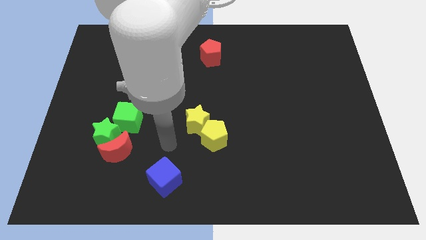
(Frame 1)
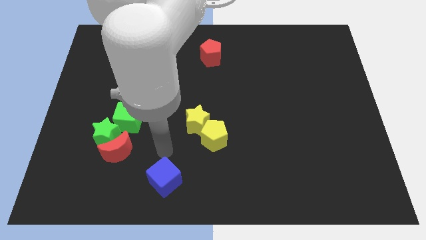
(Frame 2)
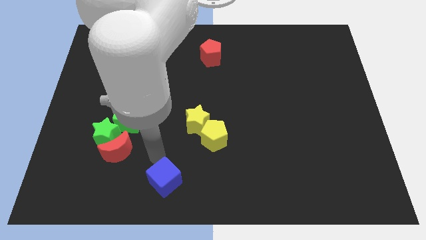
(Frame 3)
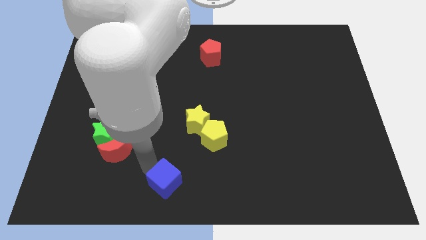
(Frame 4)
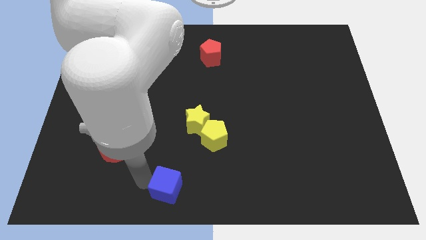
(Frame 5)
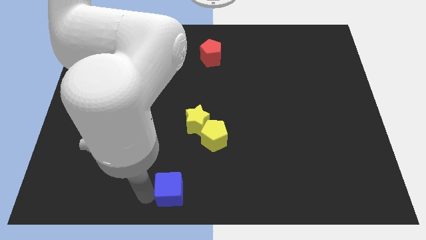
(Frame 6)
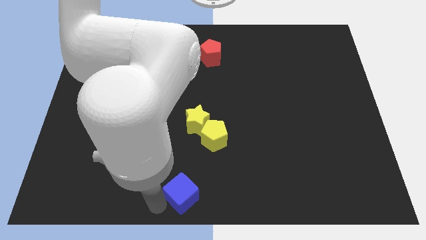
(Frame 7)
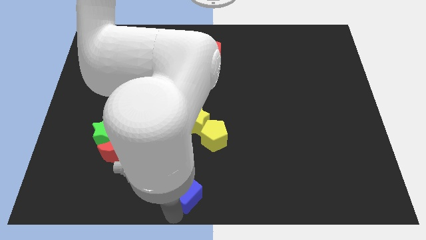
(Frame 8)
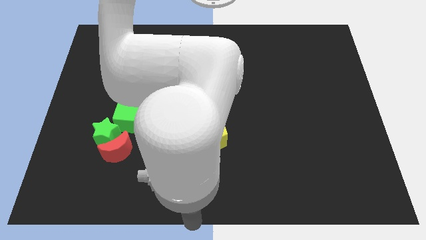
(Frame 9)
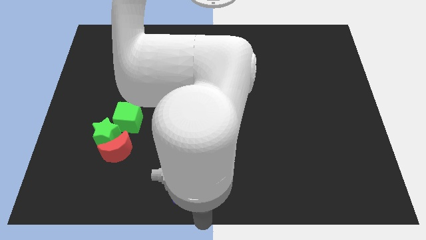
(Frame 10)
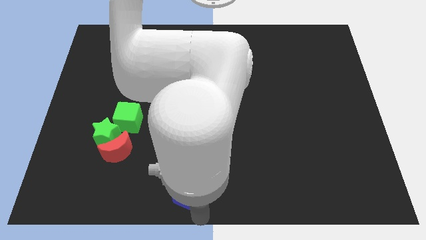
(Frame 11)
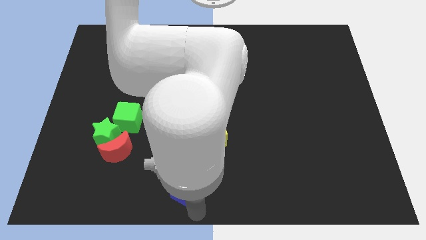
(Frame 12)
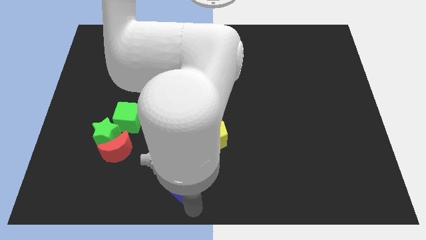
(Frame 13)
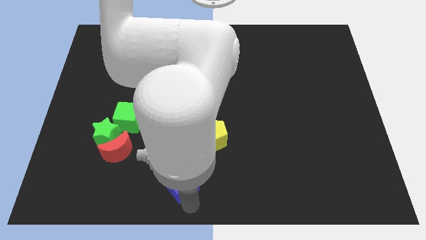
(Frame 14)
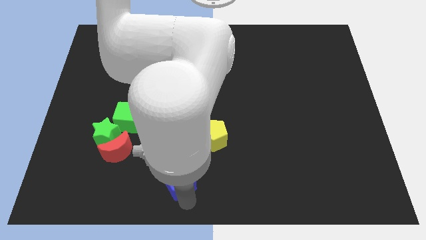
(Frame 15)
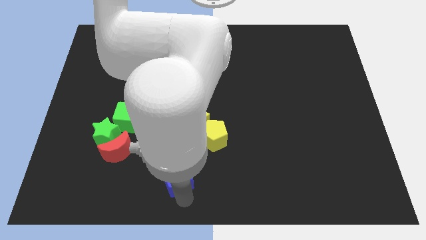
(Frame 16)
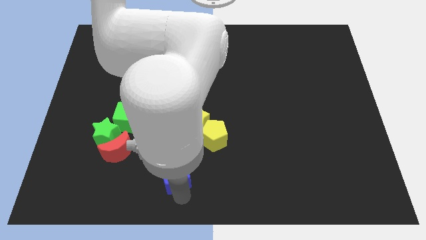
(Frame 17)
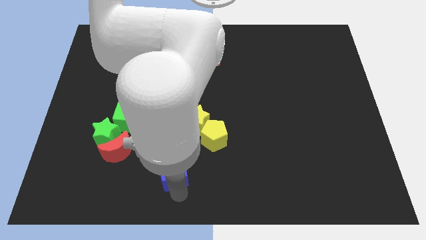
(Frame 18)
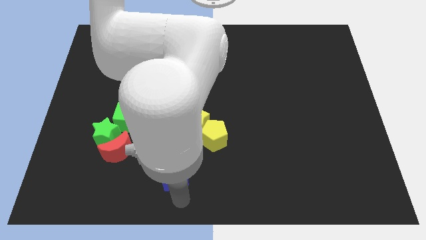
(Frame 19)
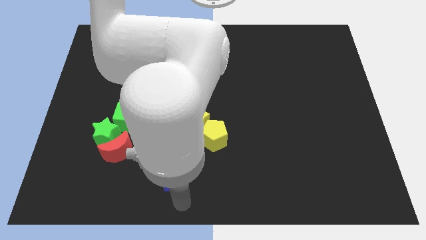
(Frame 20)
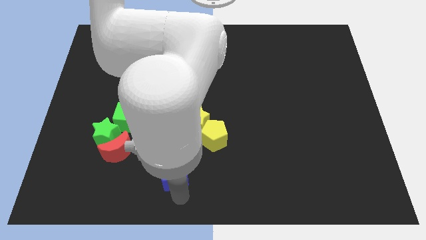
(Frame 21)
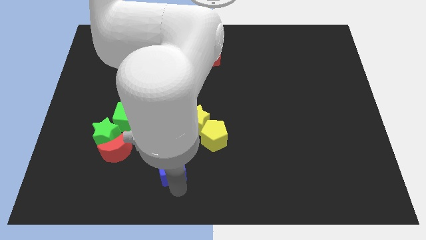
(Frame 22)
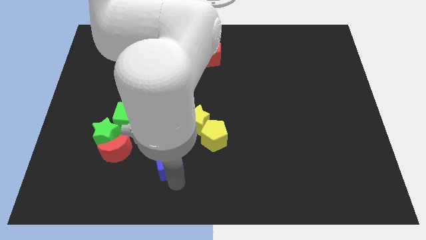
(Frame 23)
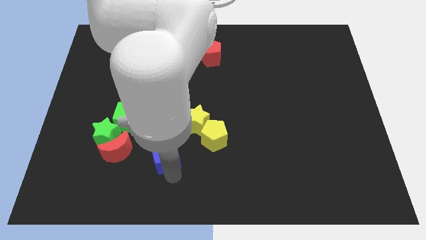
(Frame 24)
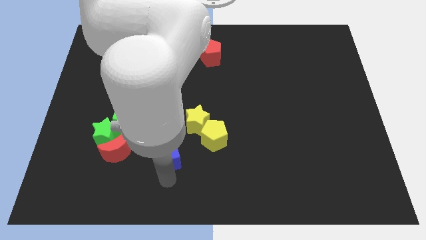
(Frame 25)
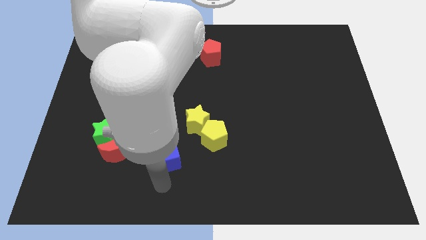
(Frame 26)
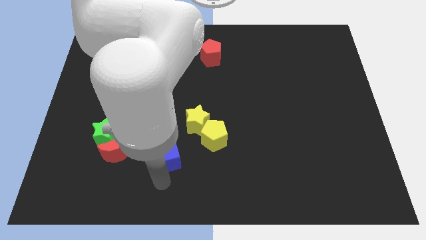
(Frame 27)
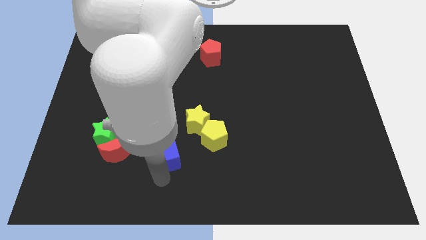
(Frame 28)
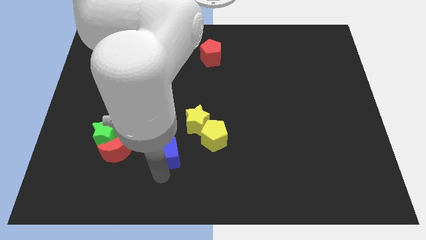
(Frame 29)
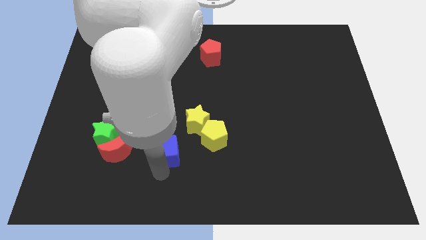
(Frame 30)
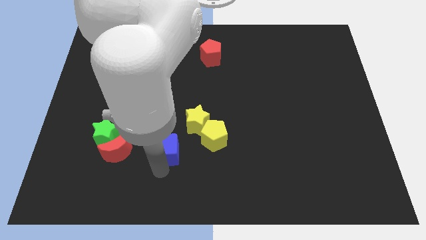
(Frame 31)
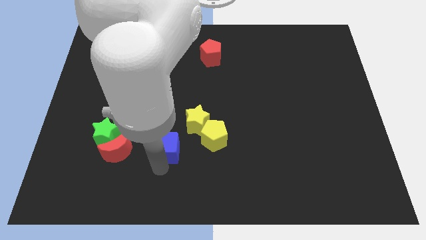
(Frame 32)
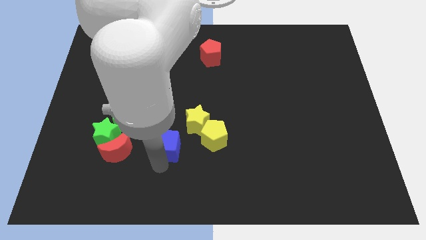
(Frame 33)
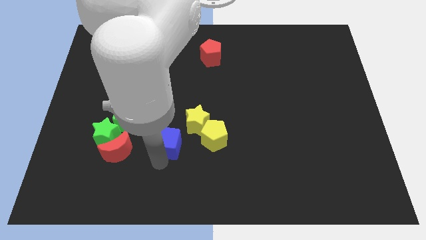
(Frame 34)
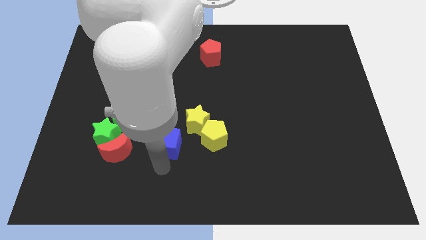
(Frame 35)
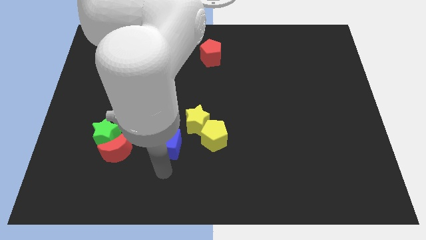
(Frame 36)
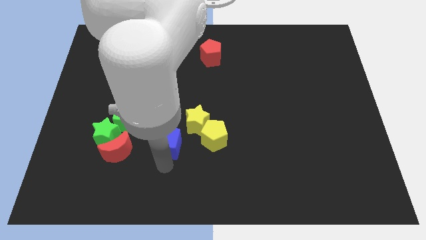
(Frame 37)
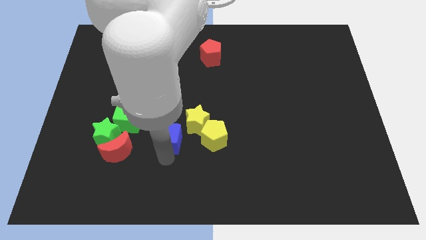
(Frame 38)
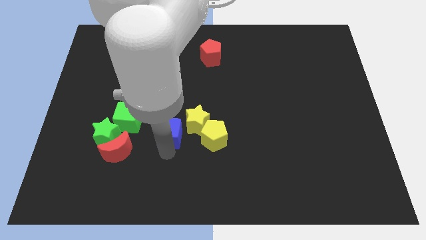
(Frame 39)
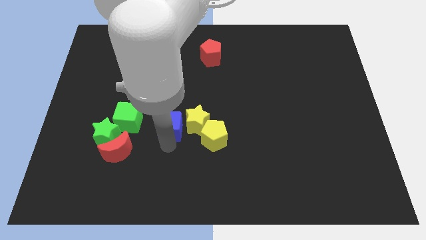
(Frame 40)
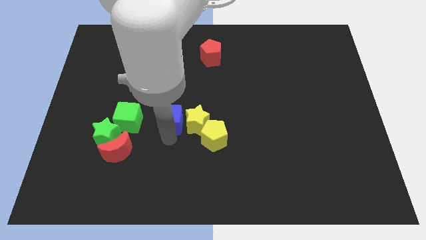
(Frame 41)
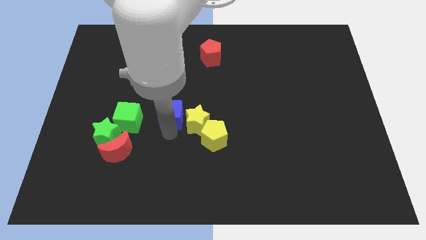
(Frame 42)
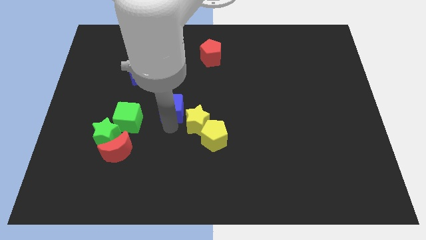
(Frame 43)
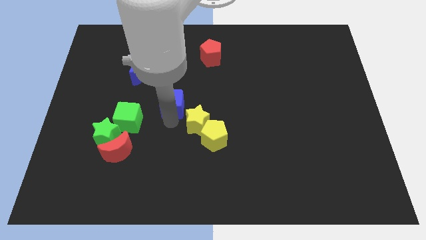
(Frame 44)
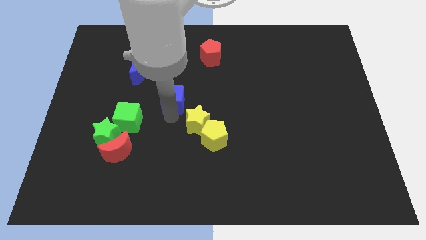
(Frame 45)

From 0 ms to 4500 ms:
move the blue cube upwards

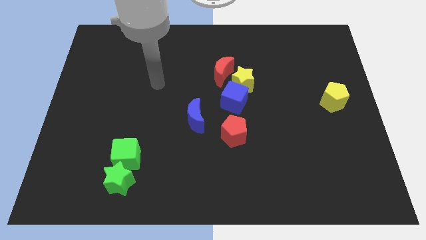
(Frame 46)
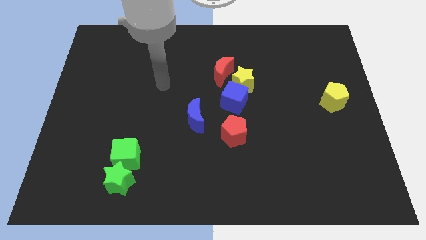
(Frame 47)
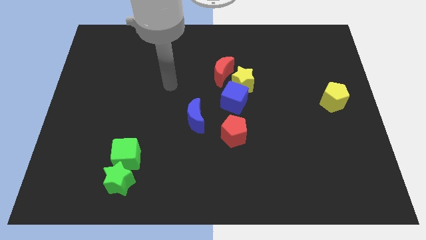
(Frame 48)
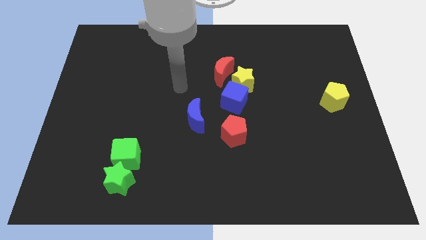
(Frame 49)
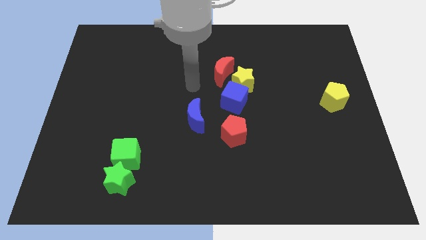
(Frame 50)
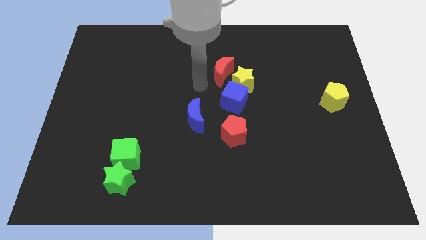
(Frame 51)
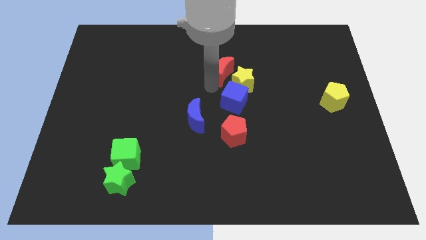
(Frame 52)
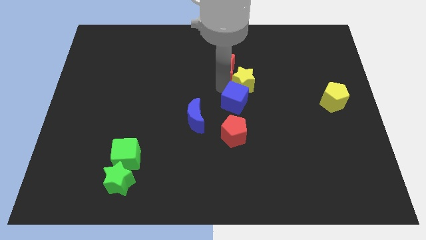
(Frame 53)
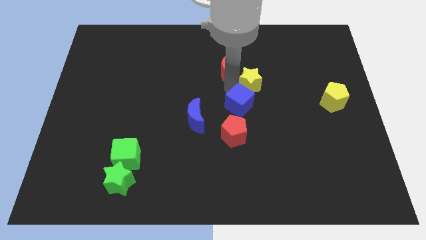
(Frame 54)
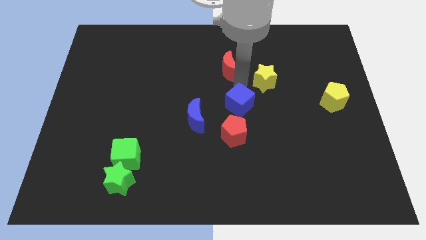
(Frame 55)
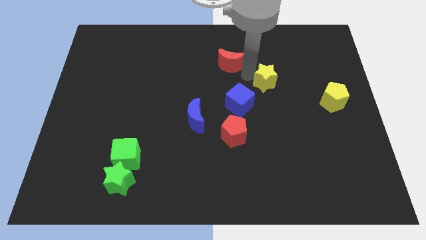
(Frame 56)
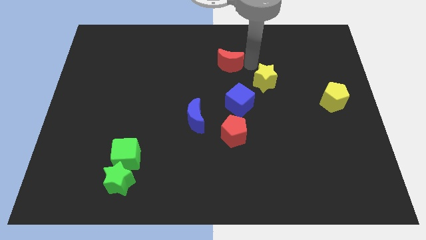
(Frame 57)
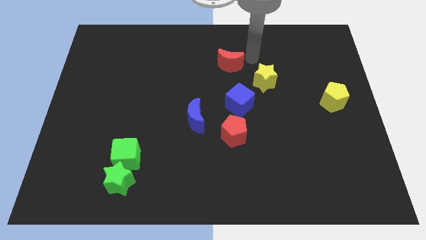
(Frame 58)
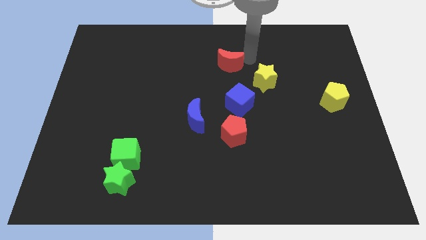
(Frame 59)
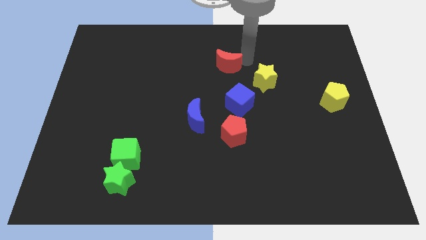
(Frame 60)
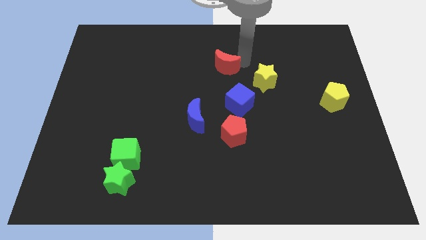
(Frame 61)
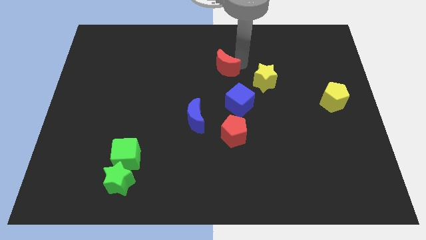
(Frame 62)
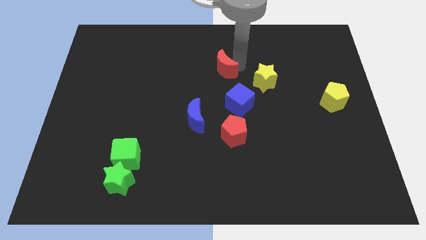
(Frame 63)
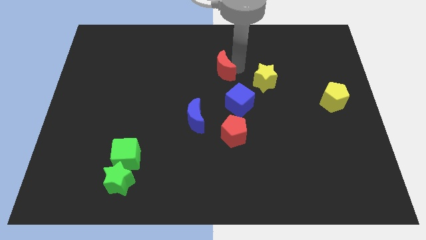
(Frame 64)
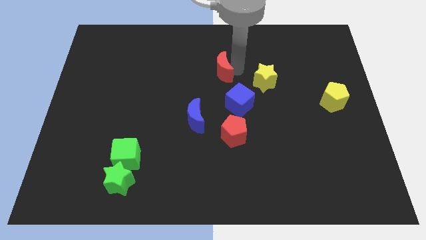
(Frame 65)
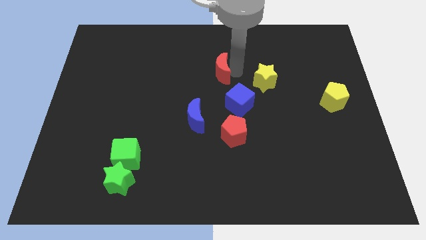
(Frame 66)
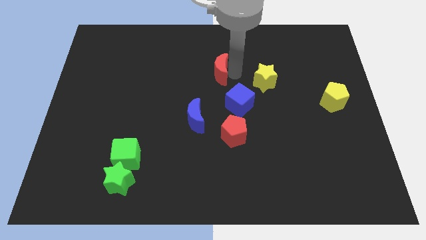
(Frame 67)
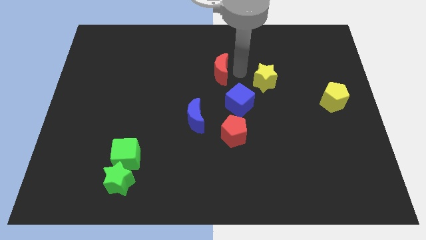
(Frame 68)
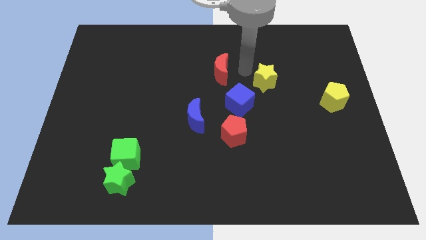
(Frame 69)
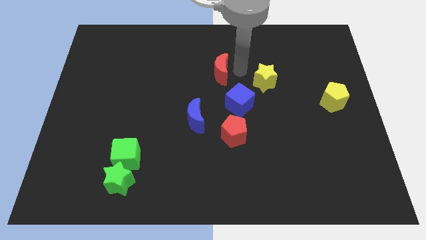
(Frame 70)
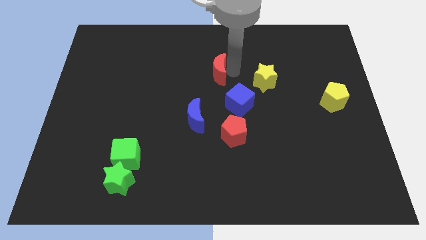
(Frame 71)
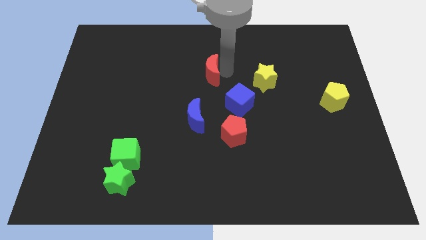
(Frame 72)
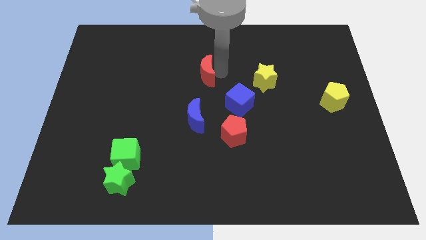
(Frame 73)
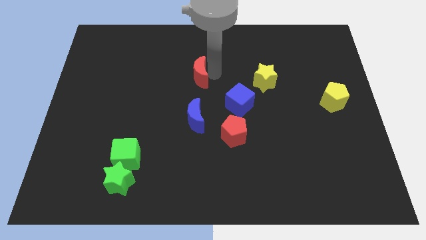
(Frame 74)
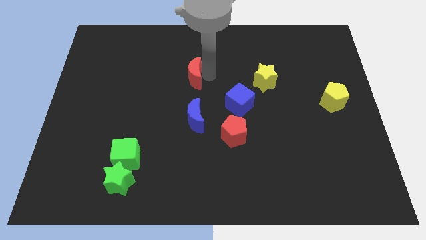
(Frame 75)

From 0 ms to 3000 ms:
push the red moon to the left a little

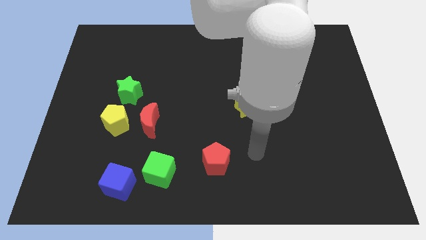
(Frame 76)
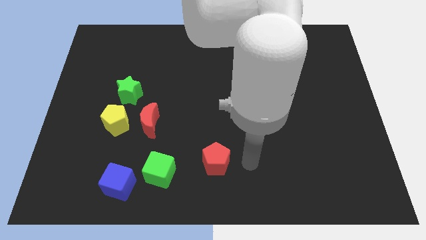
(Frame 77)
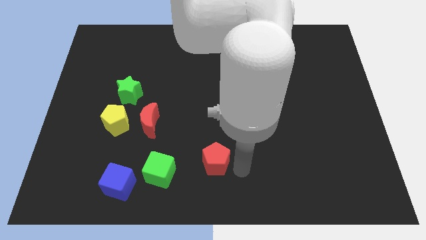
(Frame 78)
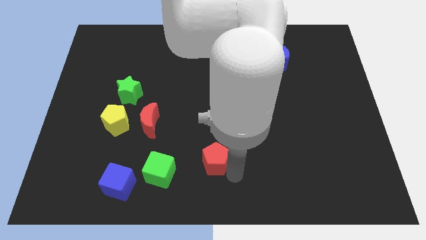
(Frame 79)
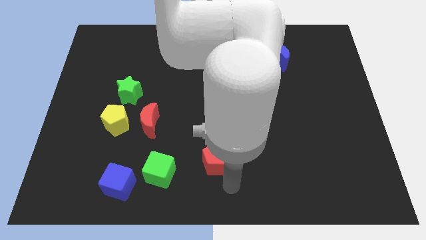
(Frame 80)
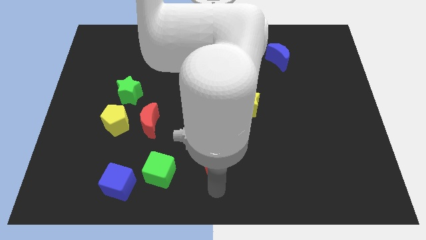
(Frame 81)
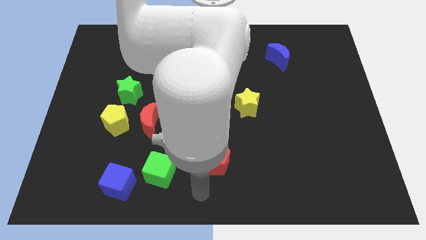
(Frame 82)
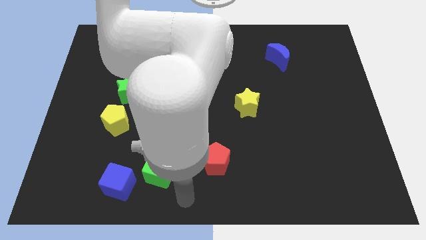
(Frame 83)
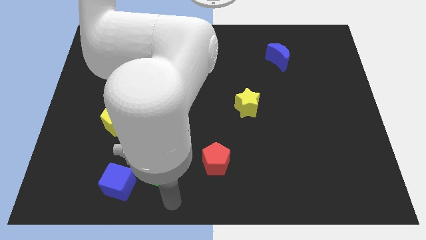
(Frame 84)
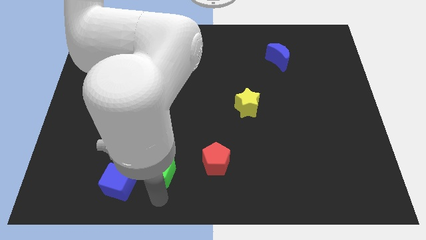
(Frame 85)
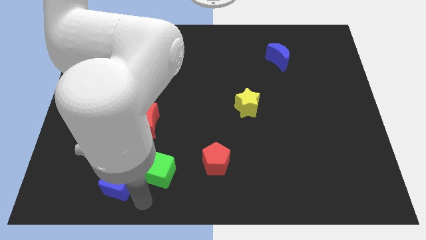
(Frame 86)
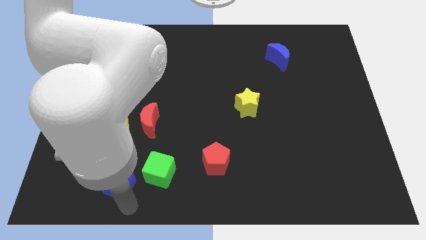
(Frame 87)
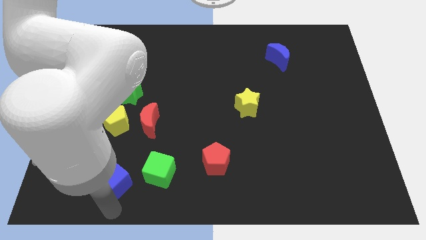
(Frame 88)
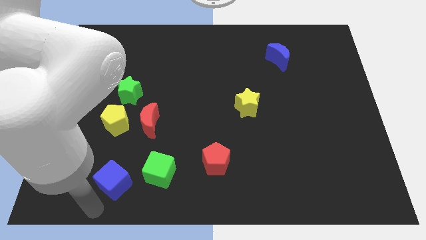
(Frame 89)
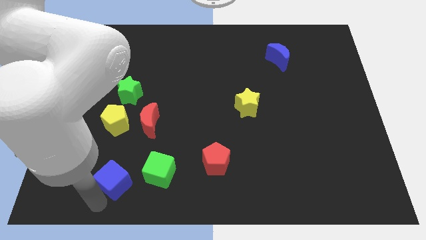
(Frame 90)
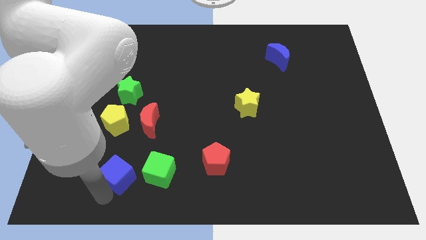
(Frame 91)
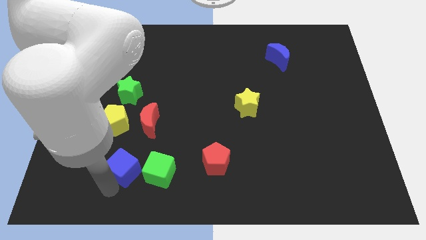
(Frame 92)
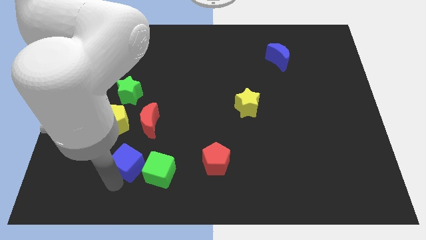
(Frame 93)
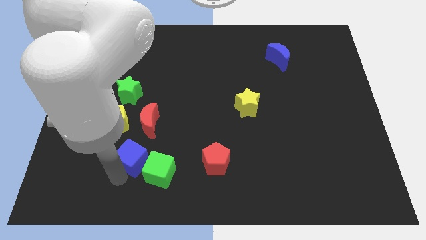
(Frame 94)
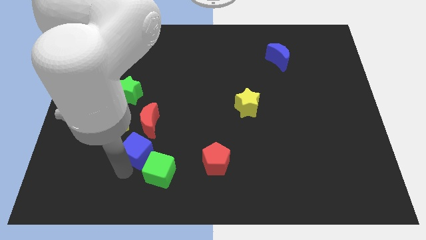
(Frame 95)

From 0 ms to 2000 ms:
move the blue cube upwards slightly
